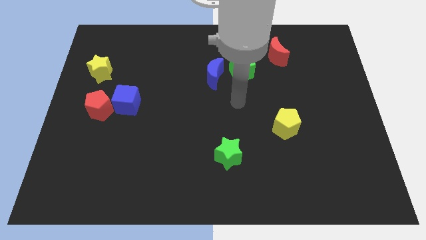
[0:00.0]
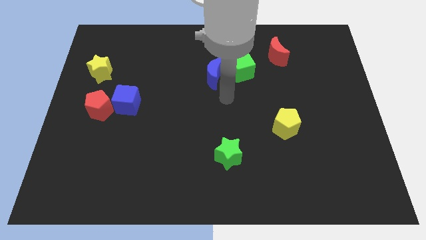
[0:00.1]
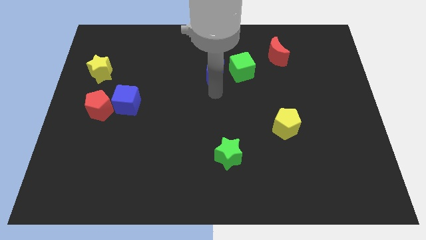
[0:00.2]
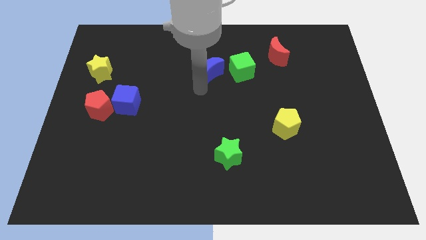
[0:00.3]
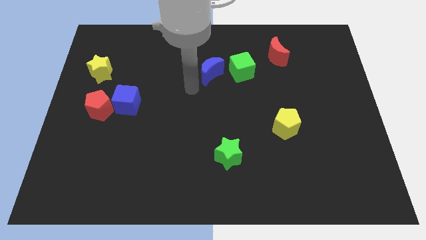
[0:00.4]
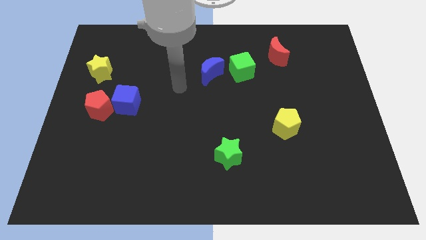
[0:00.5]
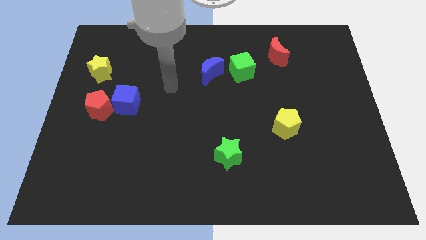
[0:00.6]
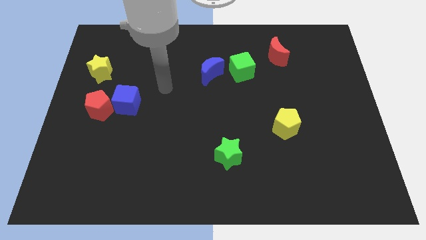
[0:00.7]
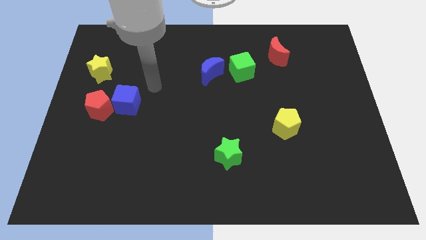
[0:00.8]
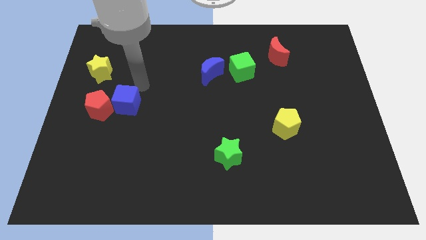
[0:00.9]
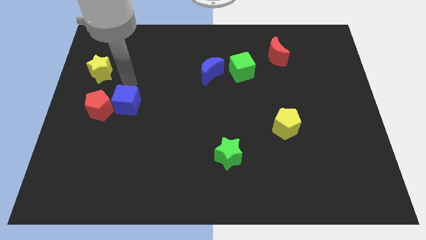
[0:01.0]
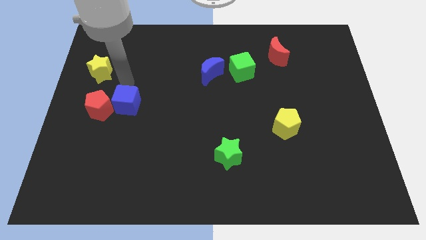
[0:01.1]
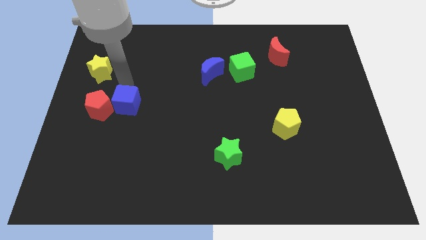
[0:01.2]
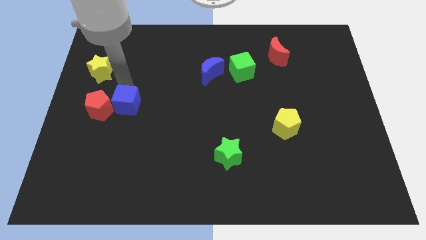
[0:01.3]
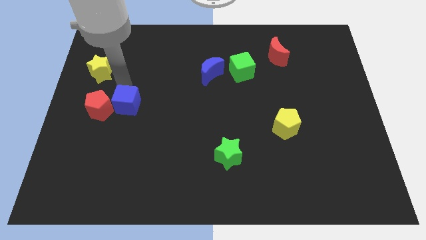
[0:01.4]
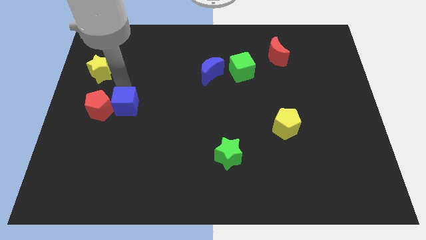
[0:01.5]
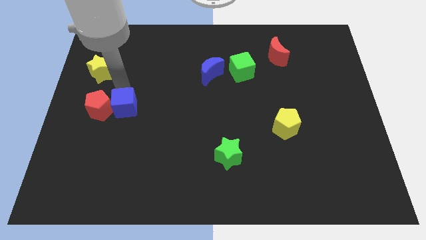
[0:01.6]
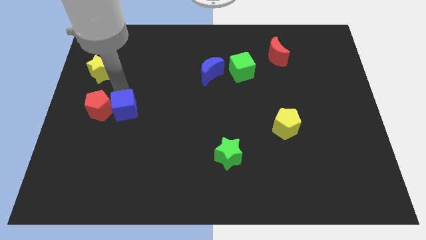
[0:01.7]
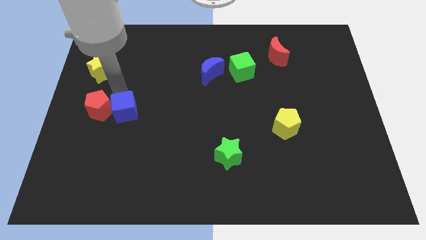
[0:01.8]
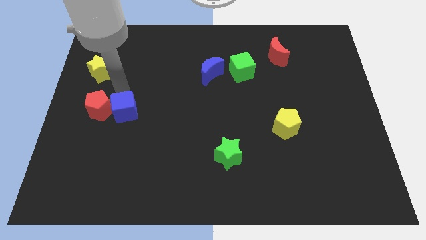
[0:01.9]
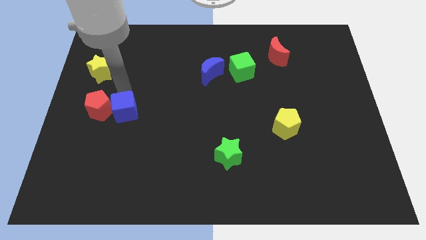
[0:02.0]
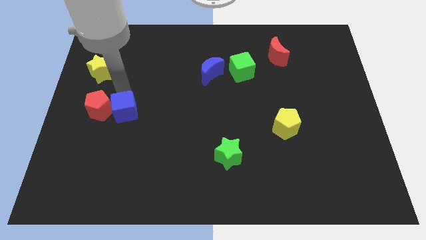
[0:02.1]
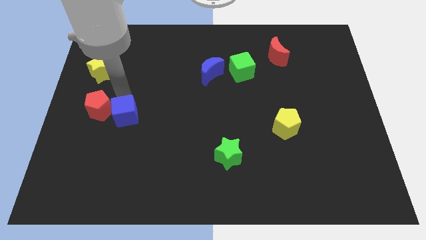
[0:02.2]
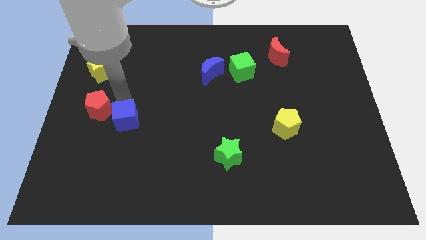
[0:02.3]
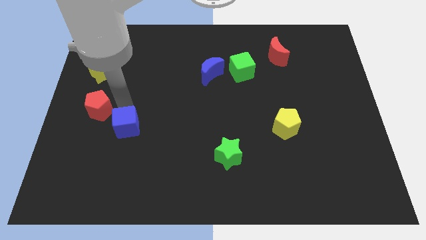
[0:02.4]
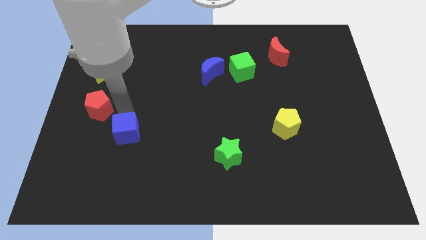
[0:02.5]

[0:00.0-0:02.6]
slide the blue cube down somewhat

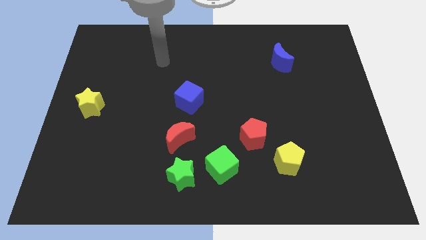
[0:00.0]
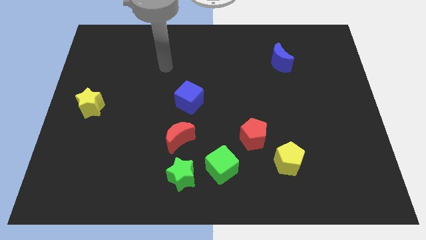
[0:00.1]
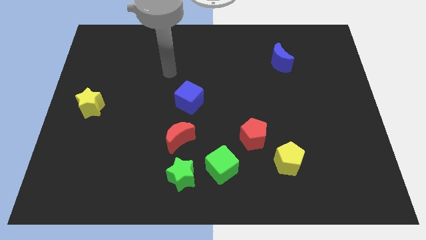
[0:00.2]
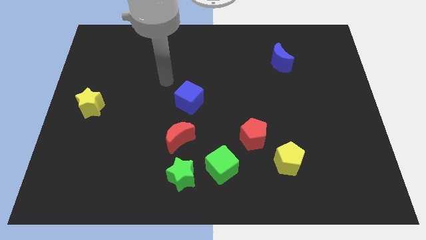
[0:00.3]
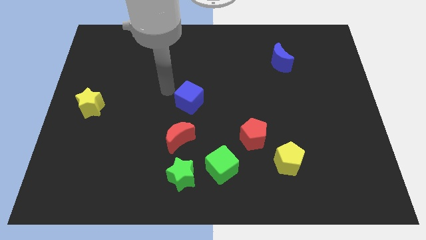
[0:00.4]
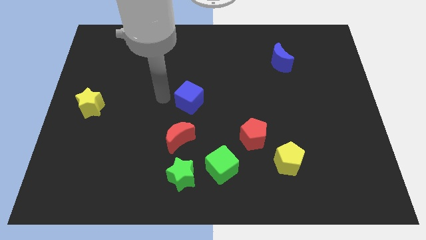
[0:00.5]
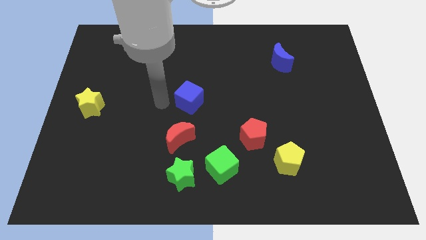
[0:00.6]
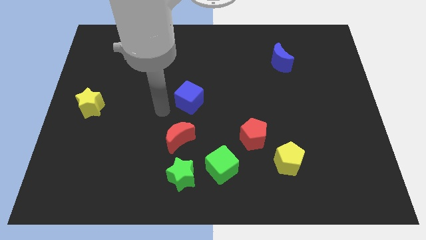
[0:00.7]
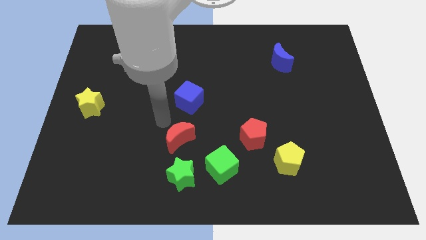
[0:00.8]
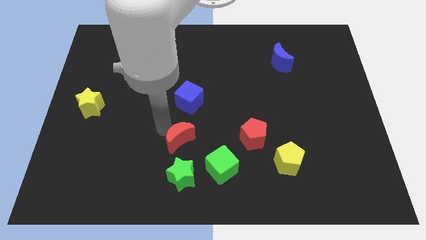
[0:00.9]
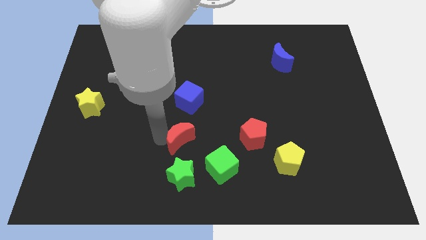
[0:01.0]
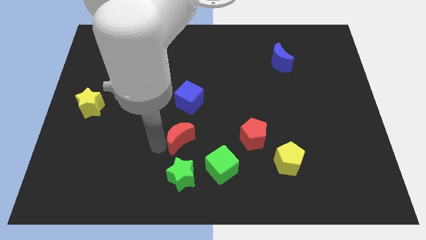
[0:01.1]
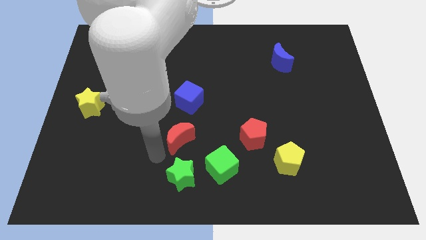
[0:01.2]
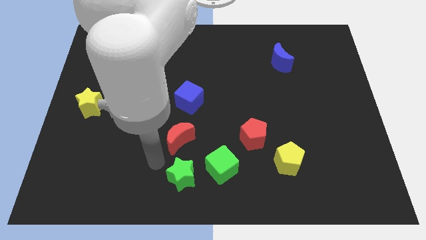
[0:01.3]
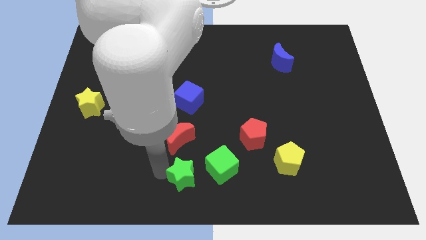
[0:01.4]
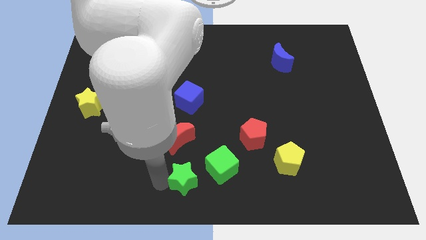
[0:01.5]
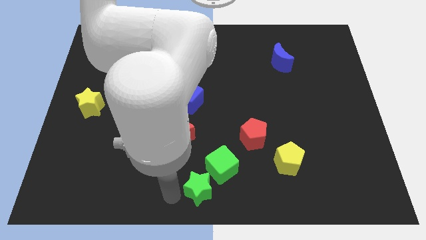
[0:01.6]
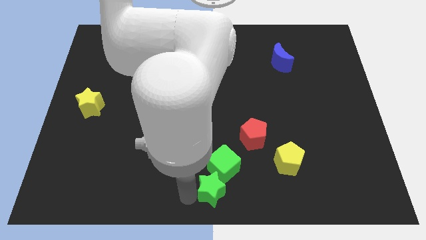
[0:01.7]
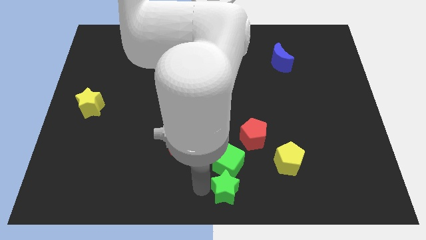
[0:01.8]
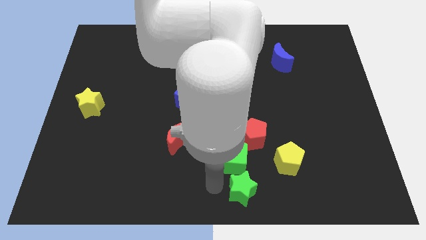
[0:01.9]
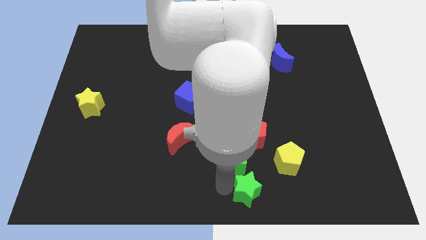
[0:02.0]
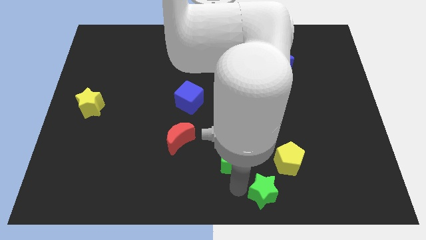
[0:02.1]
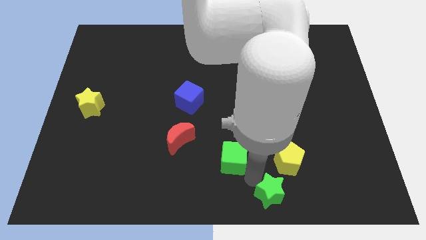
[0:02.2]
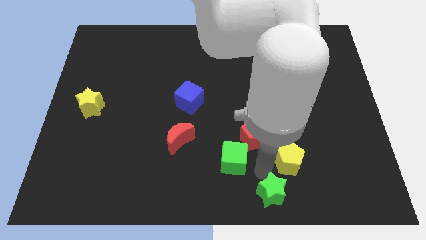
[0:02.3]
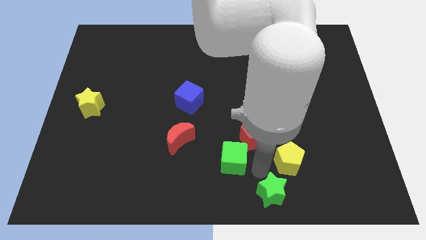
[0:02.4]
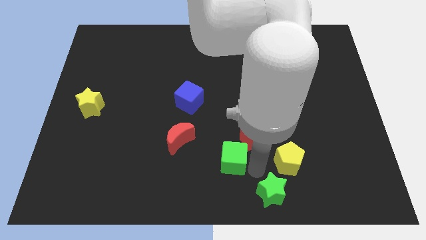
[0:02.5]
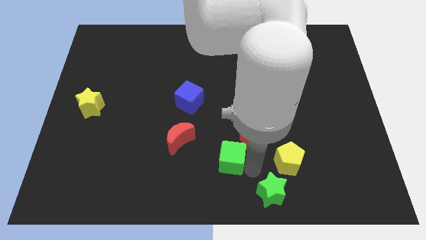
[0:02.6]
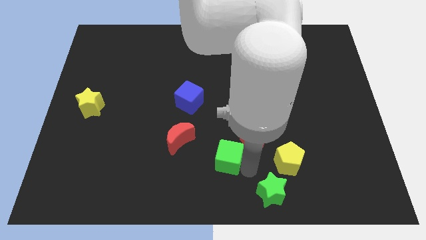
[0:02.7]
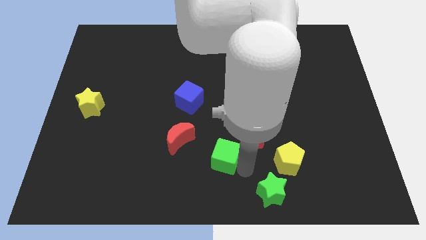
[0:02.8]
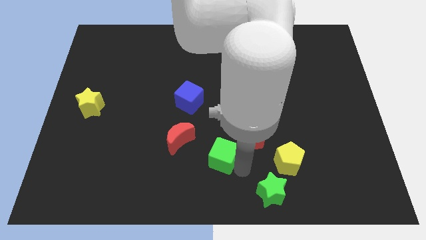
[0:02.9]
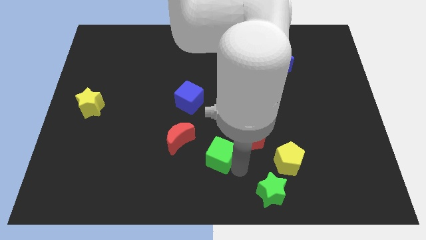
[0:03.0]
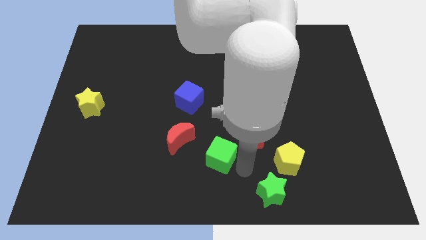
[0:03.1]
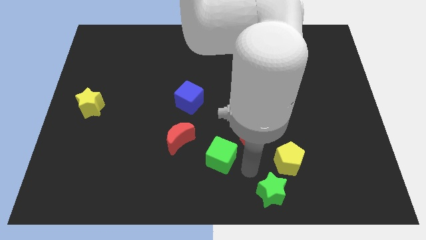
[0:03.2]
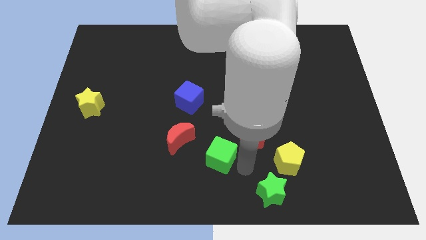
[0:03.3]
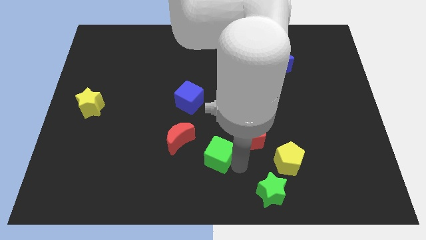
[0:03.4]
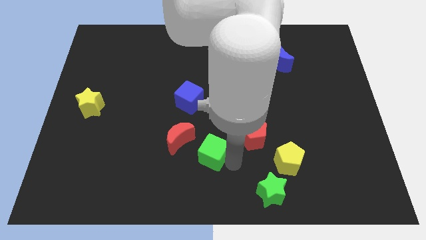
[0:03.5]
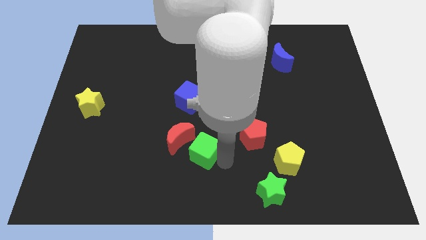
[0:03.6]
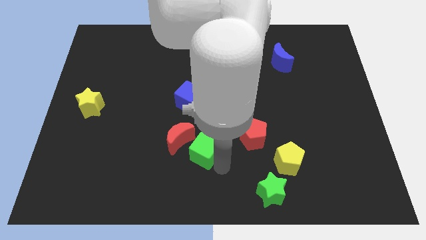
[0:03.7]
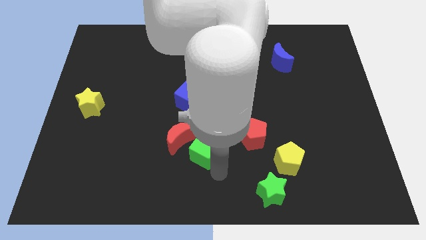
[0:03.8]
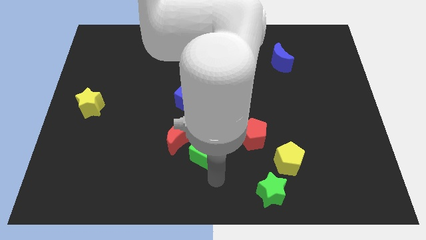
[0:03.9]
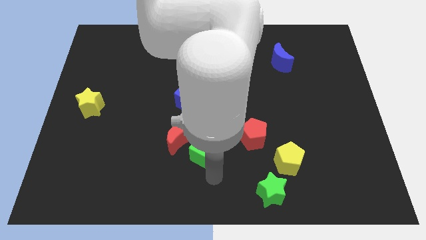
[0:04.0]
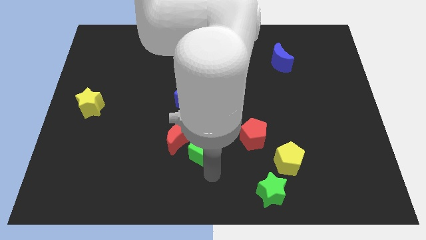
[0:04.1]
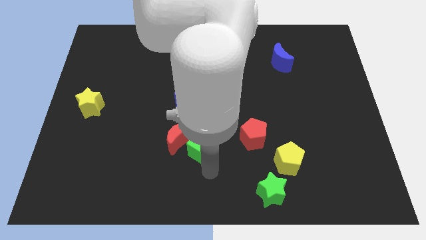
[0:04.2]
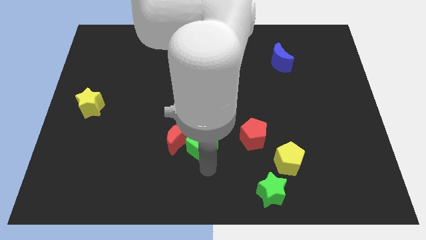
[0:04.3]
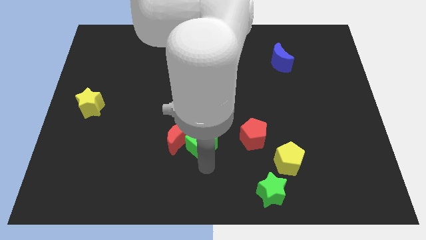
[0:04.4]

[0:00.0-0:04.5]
slightly slide the green cube up and left

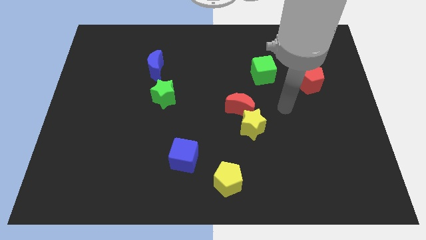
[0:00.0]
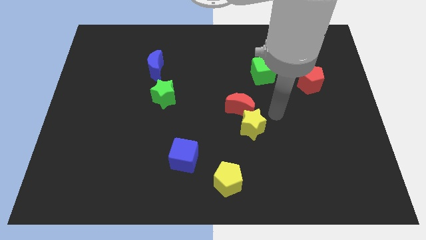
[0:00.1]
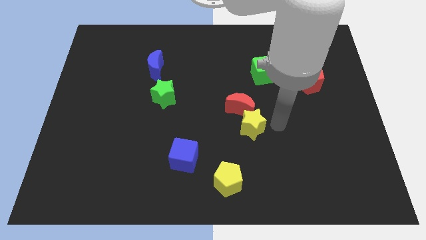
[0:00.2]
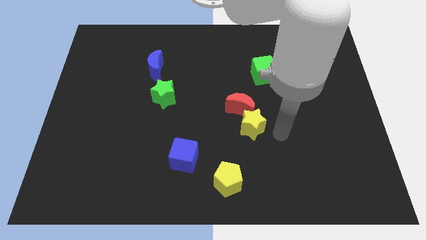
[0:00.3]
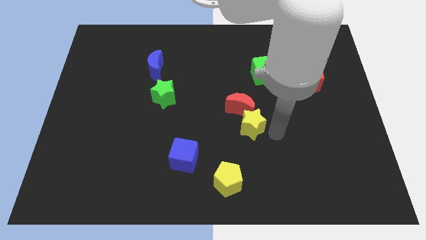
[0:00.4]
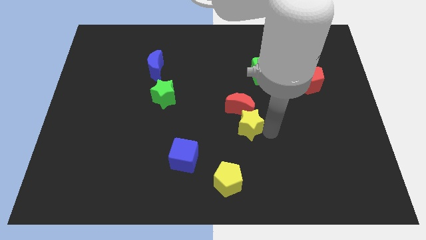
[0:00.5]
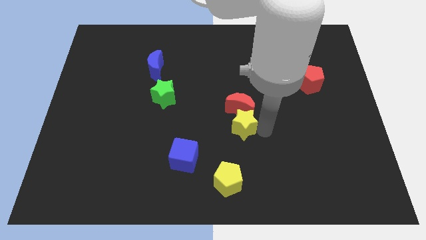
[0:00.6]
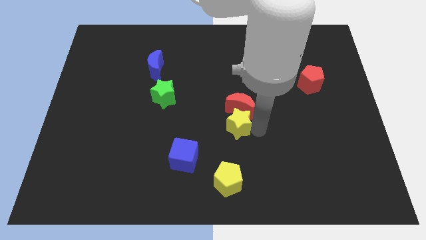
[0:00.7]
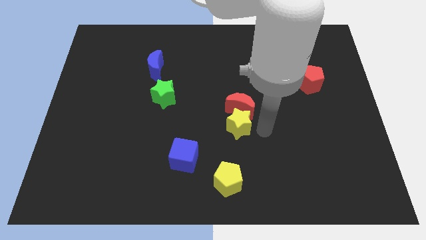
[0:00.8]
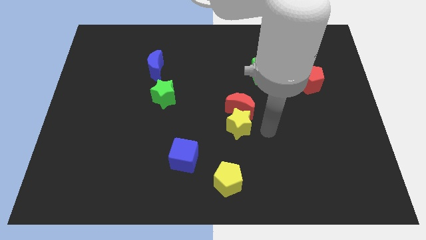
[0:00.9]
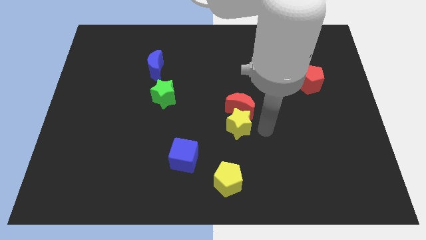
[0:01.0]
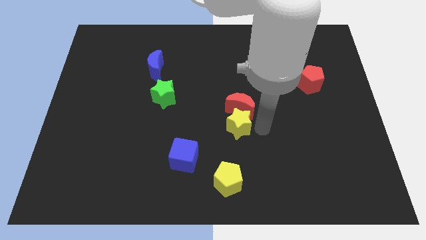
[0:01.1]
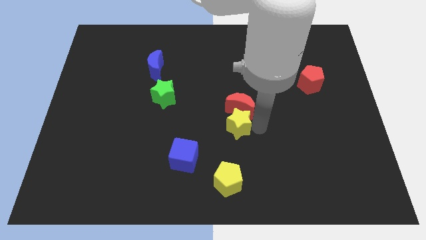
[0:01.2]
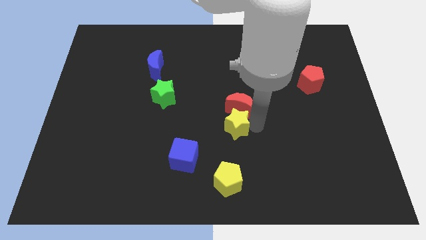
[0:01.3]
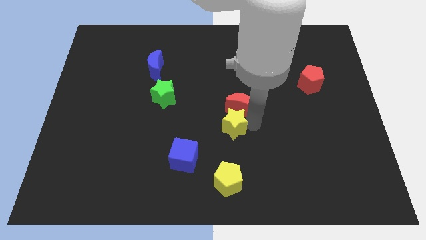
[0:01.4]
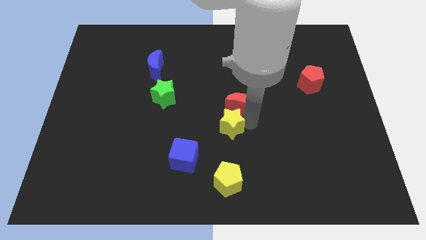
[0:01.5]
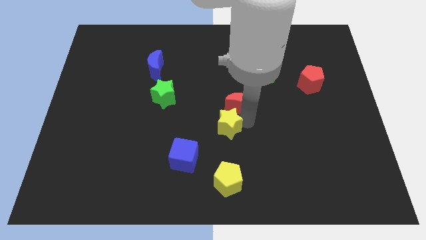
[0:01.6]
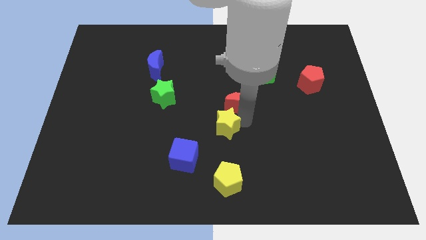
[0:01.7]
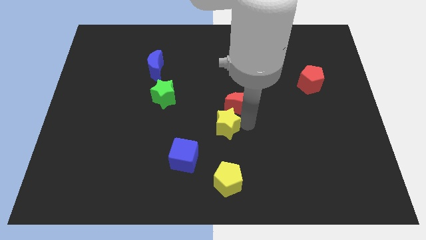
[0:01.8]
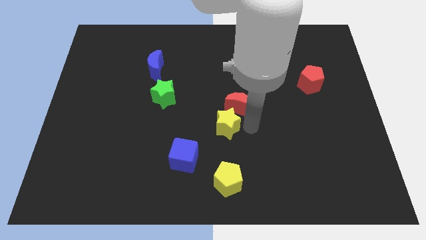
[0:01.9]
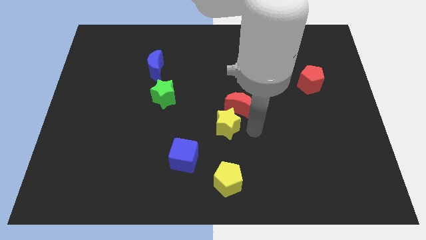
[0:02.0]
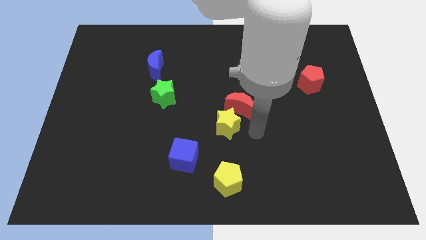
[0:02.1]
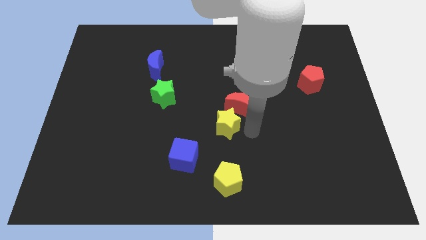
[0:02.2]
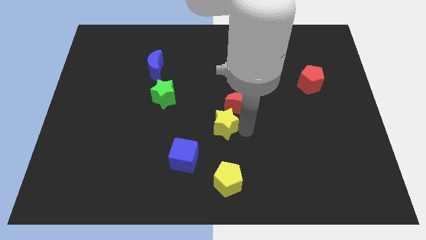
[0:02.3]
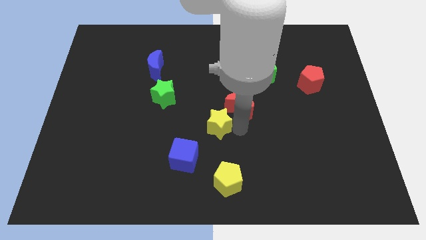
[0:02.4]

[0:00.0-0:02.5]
push the yellow star to the left a little bit
